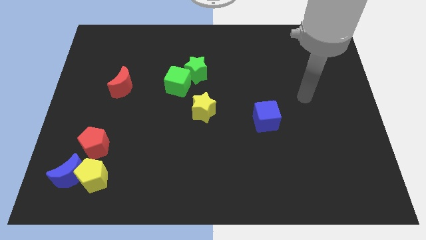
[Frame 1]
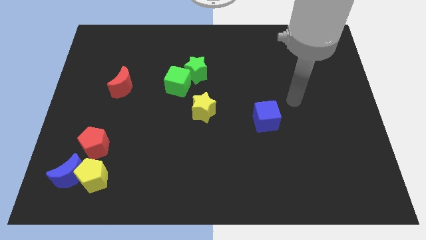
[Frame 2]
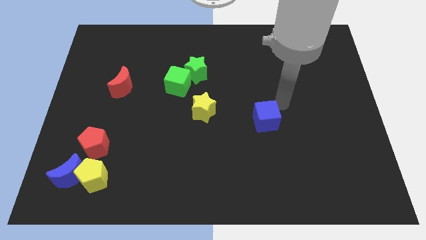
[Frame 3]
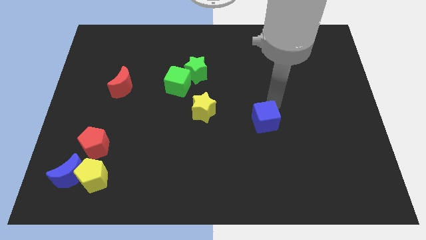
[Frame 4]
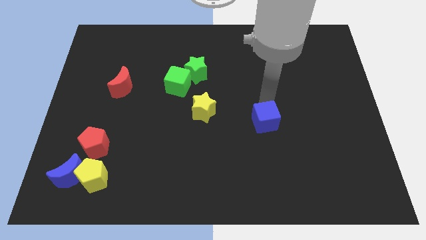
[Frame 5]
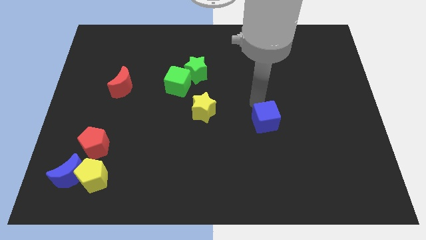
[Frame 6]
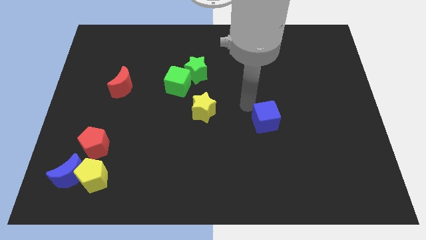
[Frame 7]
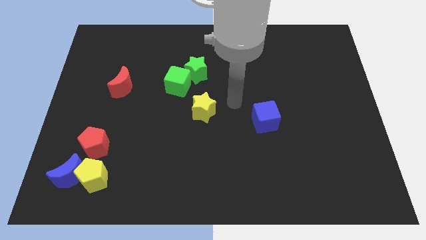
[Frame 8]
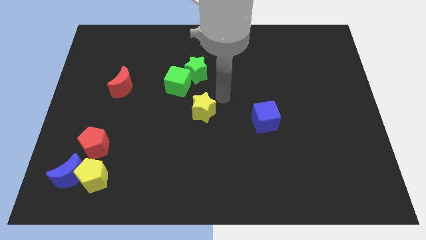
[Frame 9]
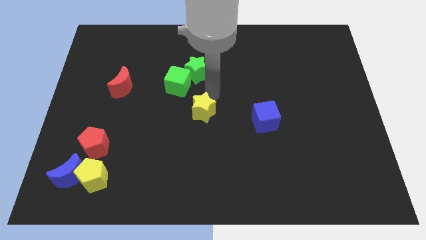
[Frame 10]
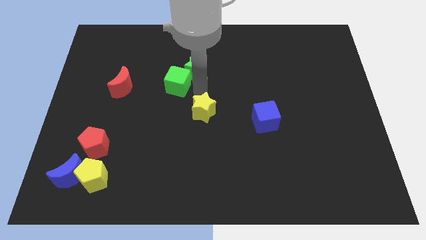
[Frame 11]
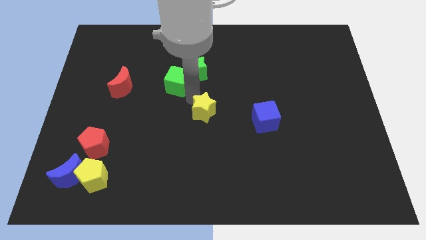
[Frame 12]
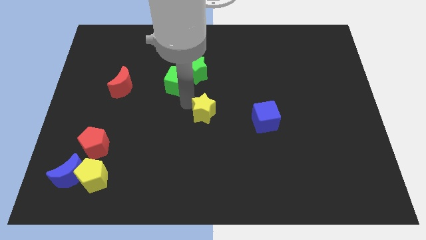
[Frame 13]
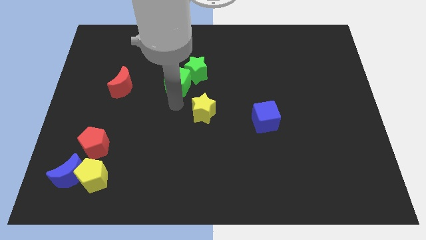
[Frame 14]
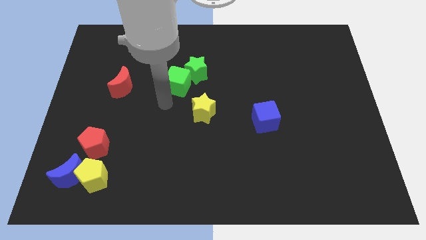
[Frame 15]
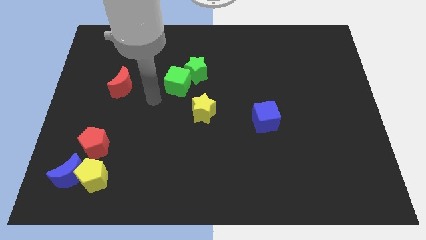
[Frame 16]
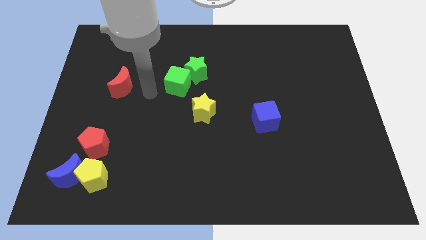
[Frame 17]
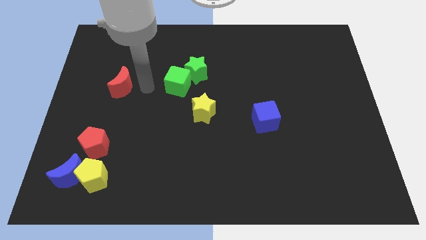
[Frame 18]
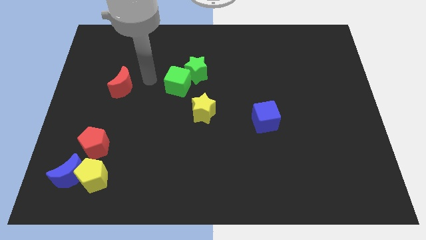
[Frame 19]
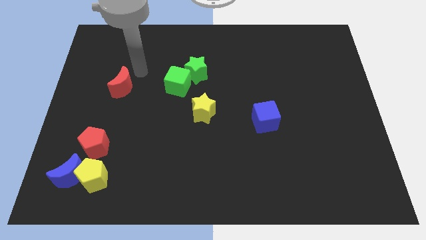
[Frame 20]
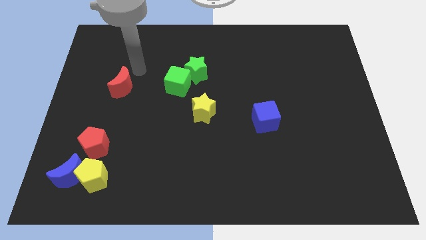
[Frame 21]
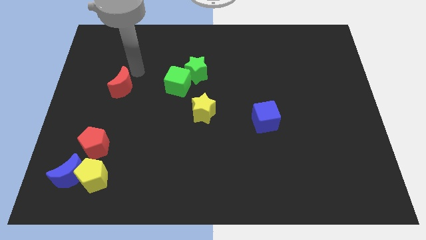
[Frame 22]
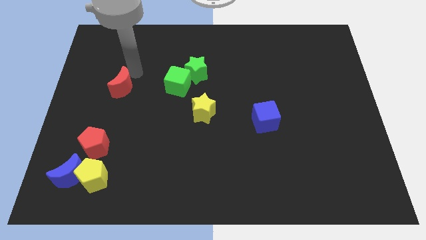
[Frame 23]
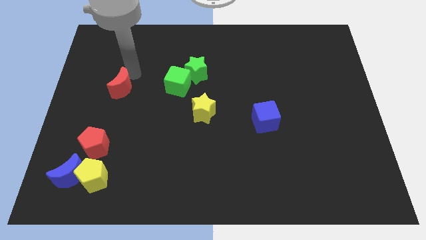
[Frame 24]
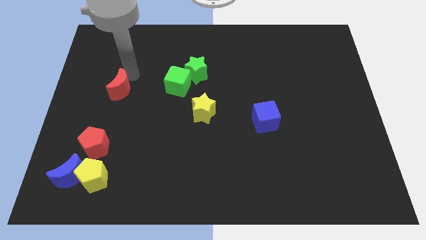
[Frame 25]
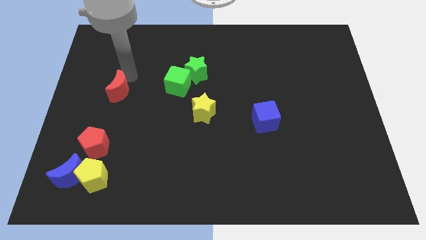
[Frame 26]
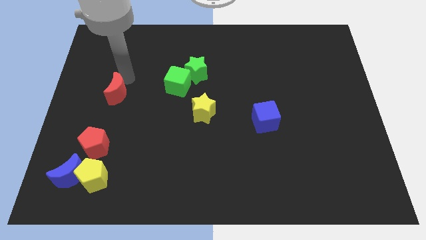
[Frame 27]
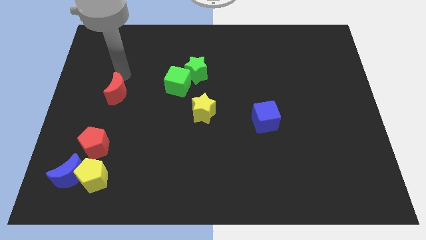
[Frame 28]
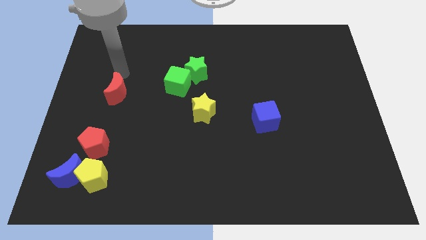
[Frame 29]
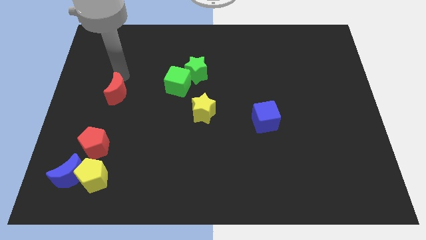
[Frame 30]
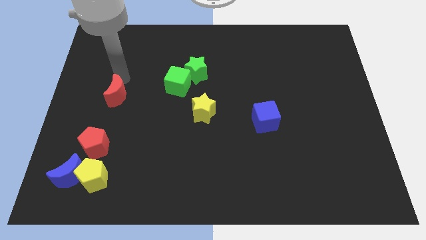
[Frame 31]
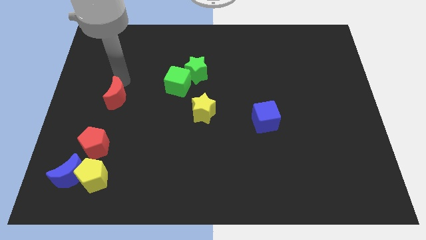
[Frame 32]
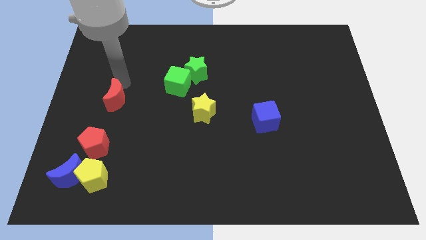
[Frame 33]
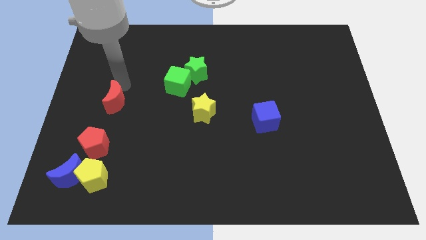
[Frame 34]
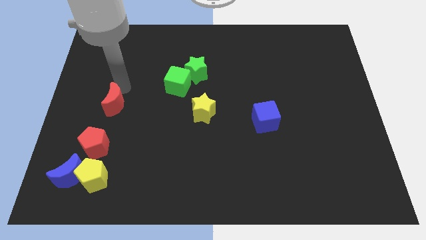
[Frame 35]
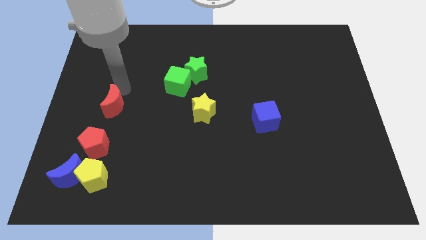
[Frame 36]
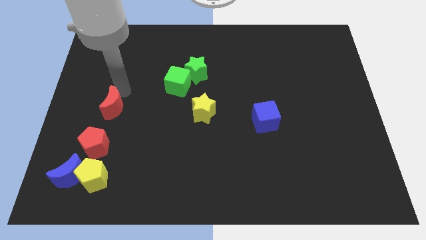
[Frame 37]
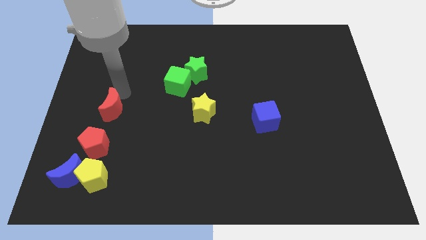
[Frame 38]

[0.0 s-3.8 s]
push the red moon down a bit

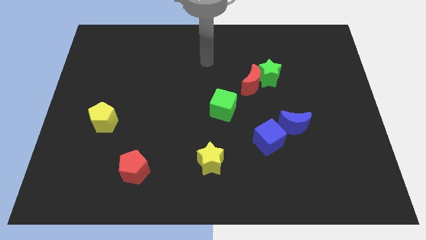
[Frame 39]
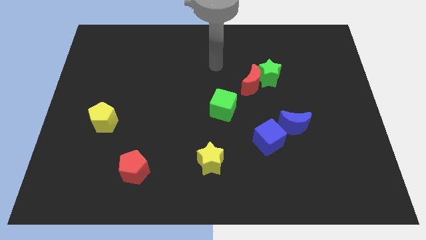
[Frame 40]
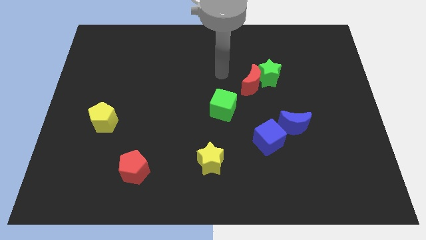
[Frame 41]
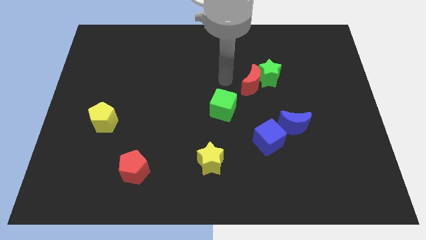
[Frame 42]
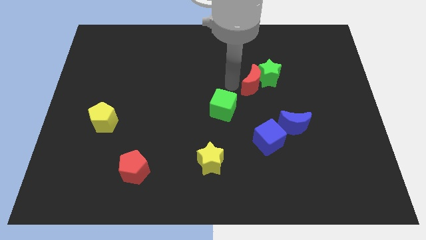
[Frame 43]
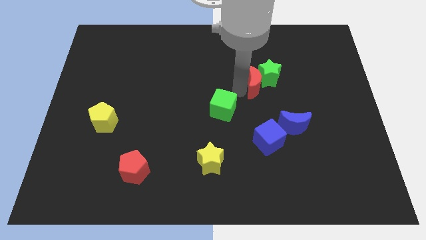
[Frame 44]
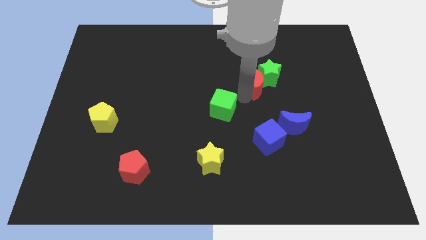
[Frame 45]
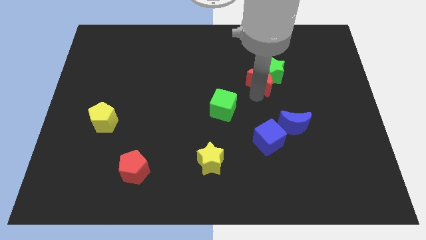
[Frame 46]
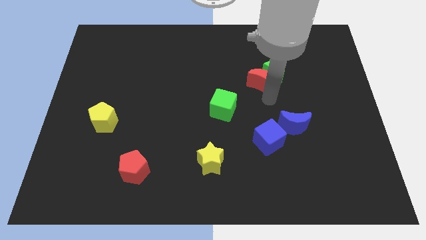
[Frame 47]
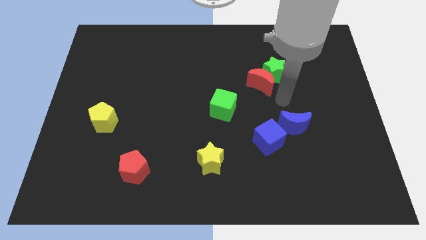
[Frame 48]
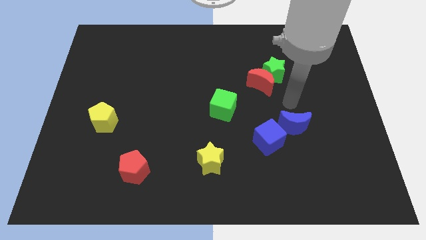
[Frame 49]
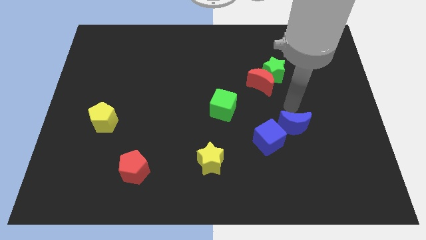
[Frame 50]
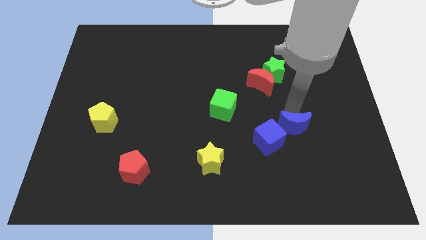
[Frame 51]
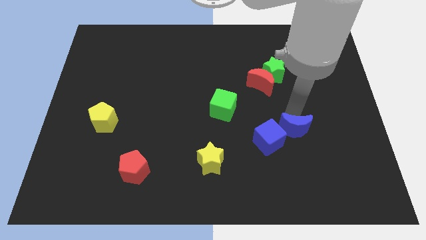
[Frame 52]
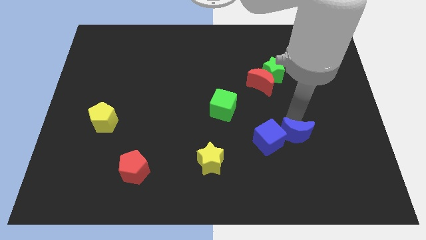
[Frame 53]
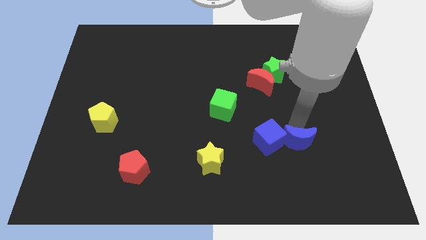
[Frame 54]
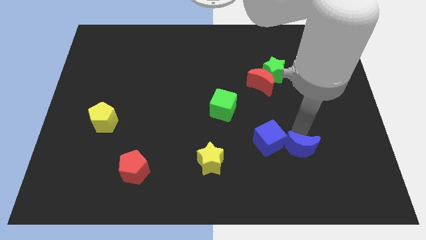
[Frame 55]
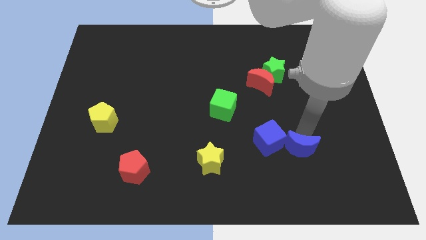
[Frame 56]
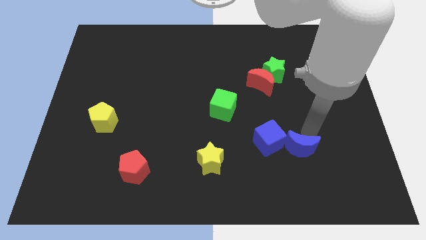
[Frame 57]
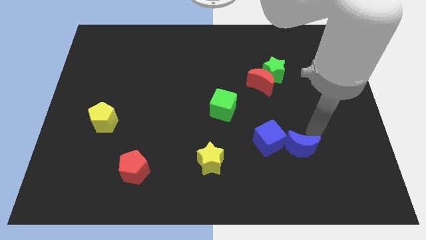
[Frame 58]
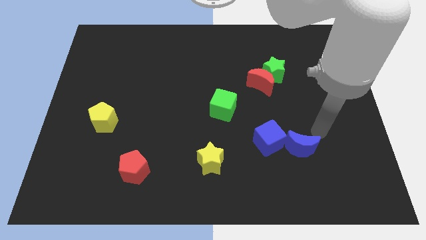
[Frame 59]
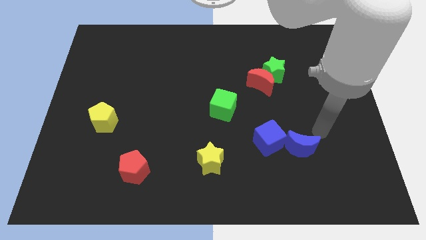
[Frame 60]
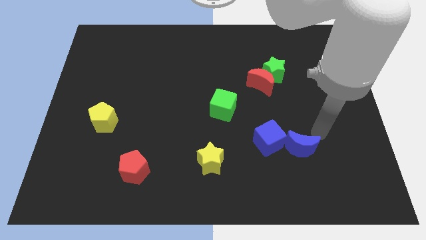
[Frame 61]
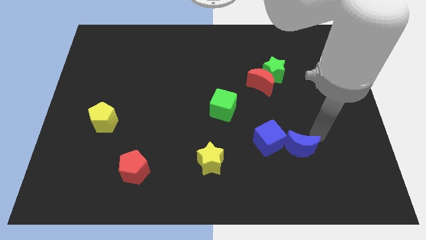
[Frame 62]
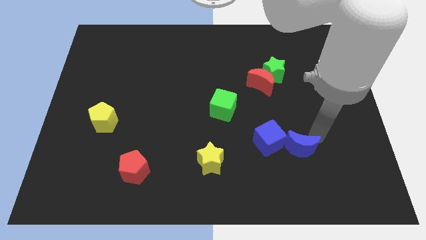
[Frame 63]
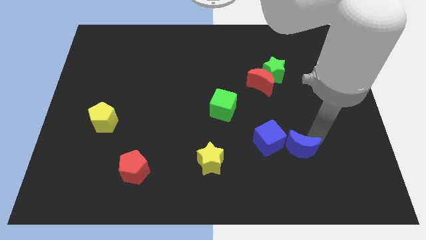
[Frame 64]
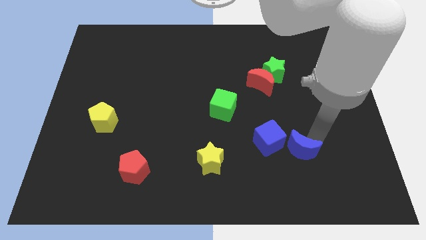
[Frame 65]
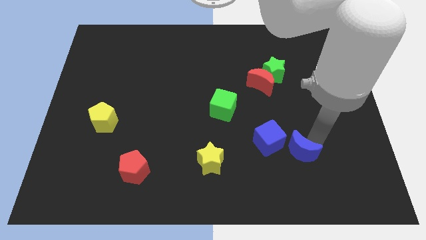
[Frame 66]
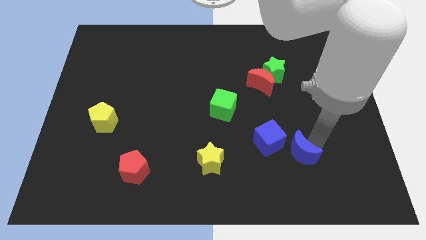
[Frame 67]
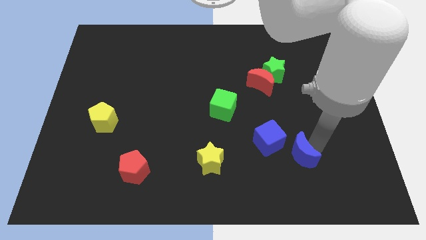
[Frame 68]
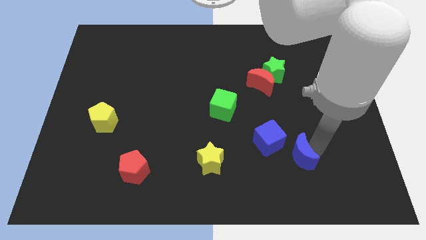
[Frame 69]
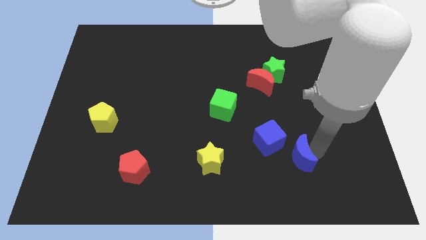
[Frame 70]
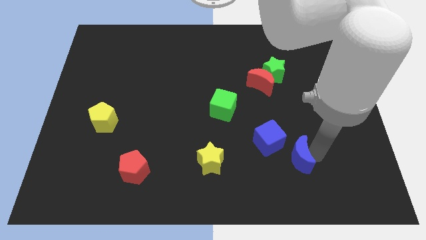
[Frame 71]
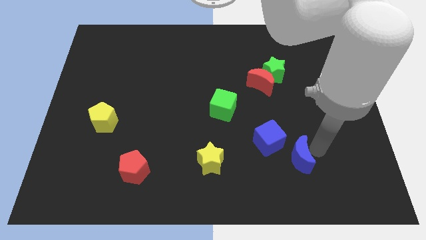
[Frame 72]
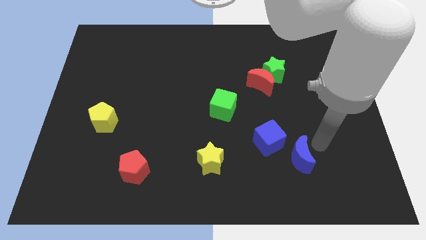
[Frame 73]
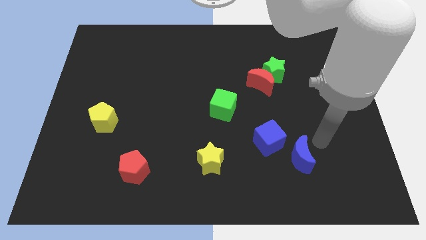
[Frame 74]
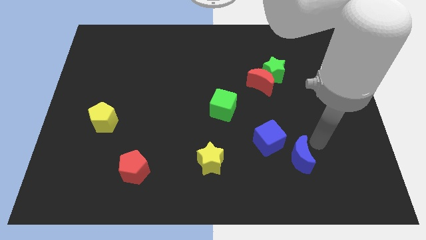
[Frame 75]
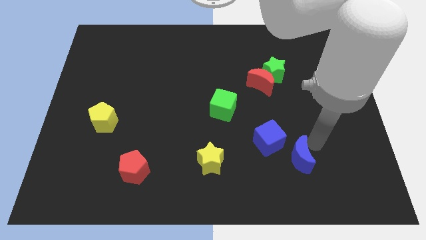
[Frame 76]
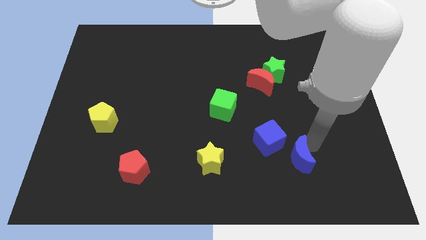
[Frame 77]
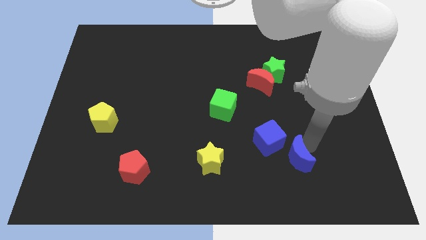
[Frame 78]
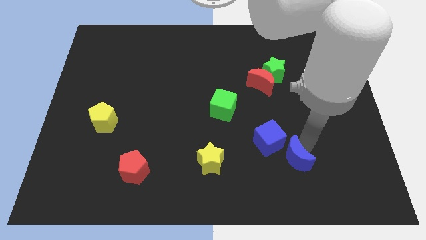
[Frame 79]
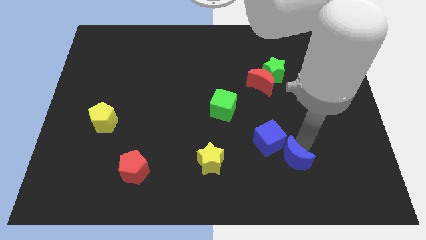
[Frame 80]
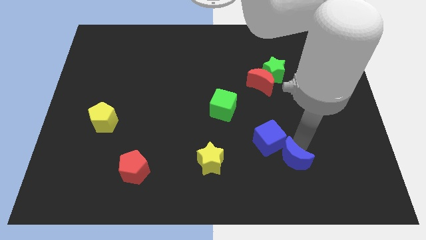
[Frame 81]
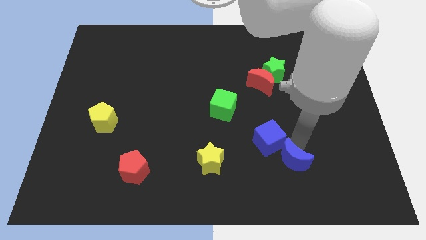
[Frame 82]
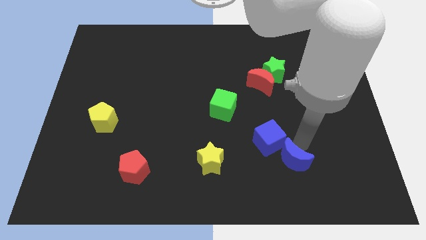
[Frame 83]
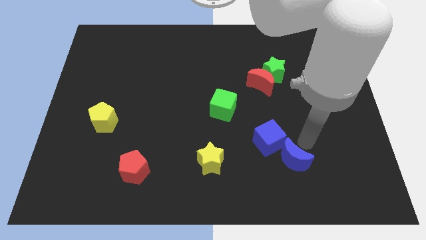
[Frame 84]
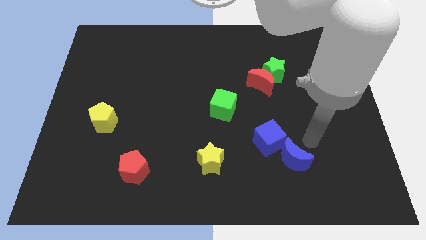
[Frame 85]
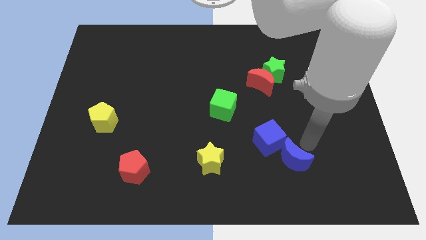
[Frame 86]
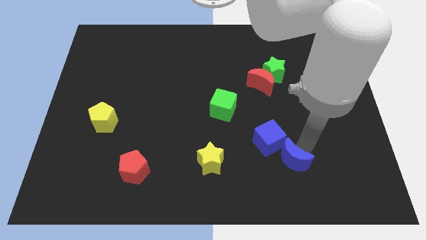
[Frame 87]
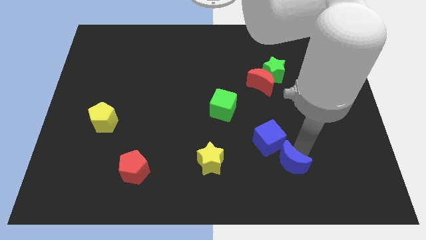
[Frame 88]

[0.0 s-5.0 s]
move the blue moon downwards and then left a bit
